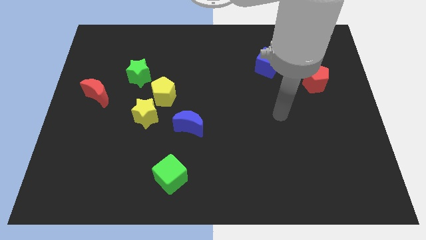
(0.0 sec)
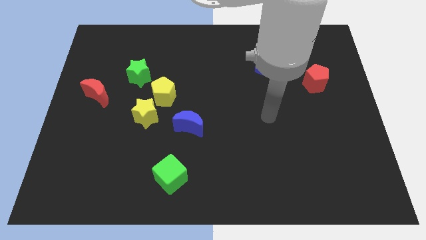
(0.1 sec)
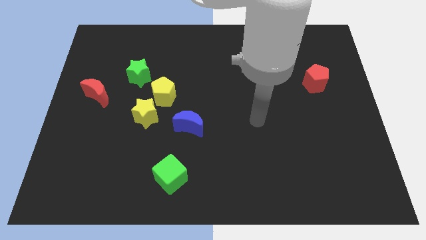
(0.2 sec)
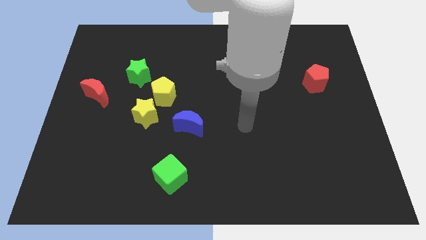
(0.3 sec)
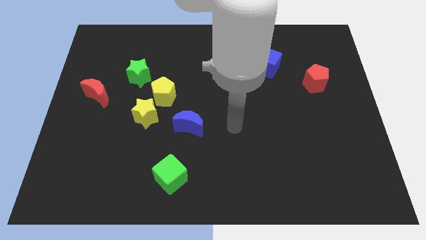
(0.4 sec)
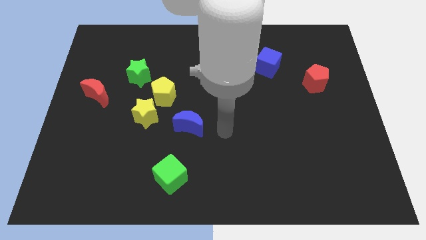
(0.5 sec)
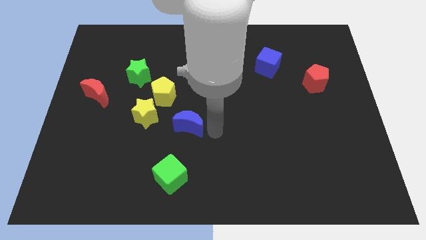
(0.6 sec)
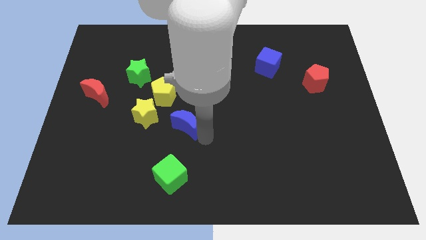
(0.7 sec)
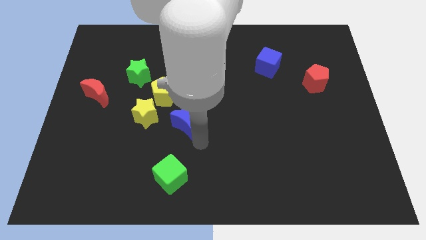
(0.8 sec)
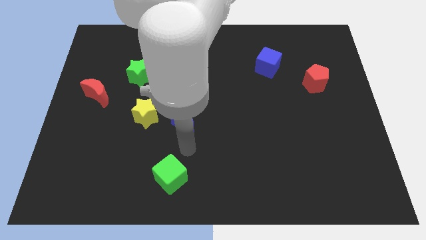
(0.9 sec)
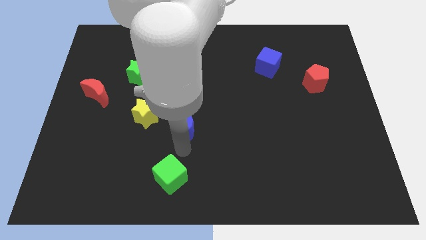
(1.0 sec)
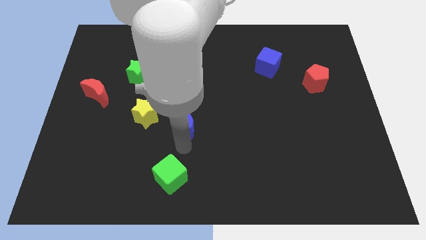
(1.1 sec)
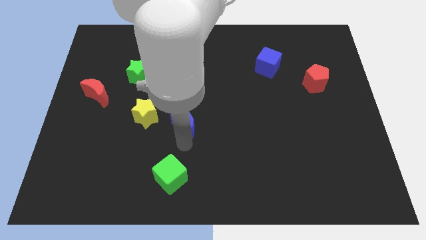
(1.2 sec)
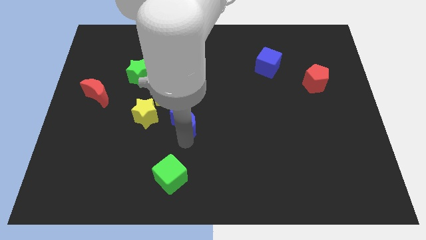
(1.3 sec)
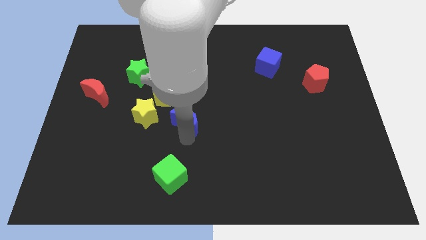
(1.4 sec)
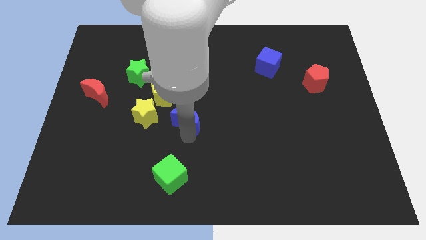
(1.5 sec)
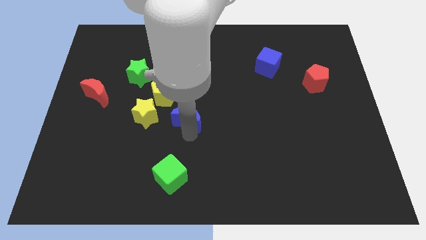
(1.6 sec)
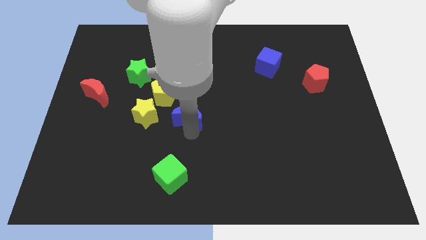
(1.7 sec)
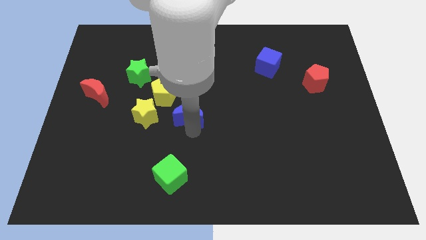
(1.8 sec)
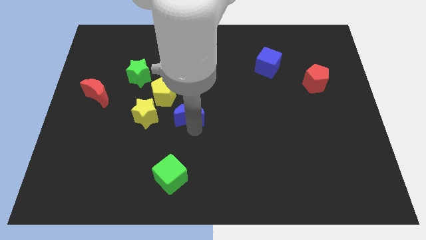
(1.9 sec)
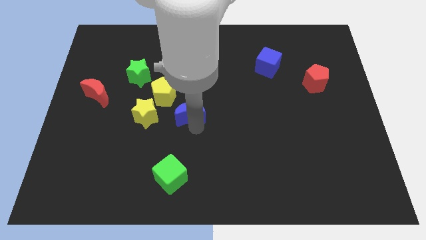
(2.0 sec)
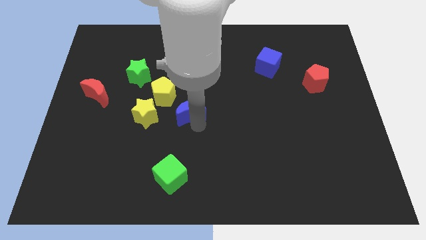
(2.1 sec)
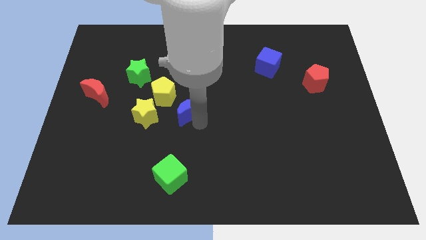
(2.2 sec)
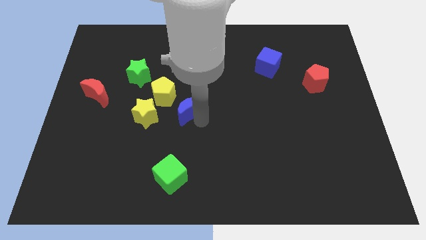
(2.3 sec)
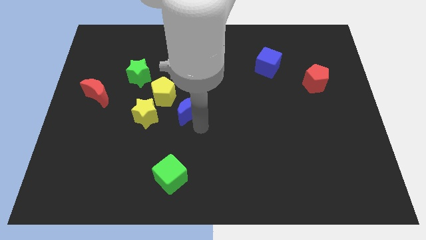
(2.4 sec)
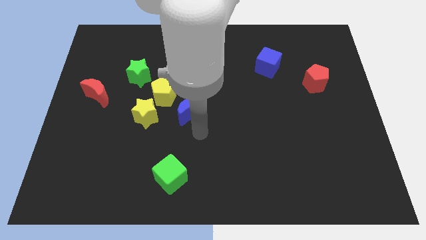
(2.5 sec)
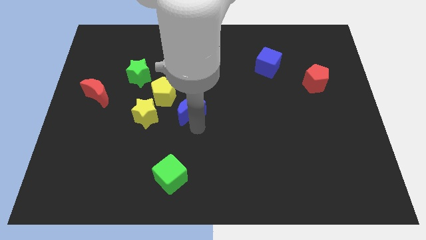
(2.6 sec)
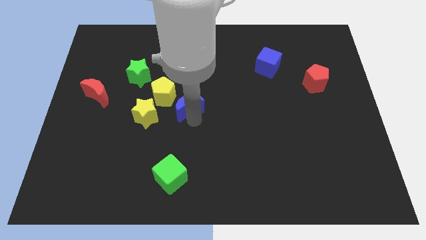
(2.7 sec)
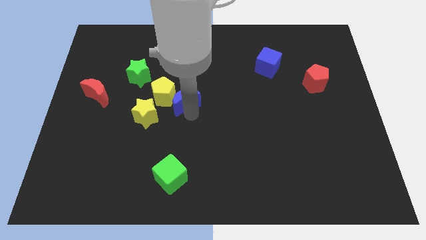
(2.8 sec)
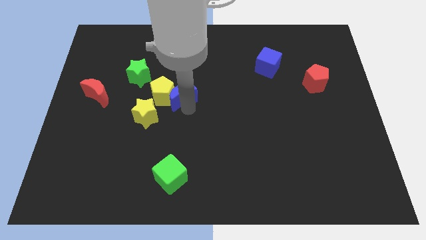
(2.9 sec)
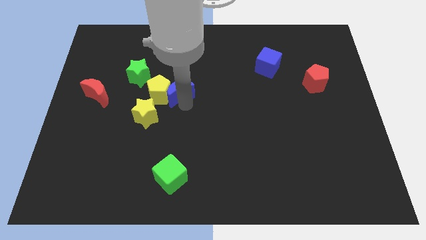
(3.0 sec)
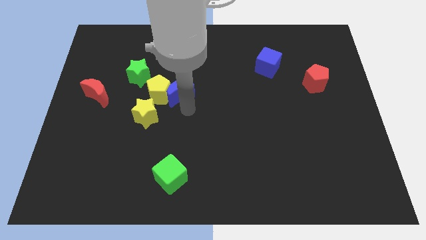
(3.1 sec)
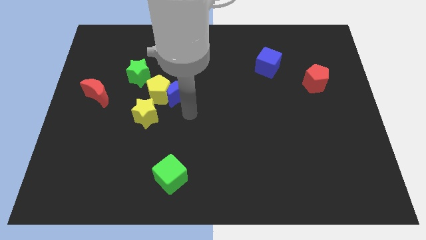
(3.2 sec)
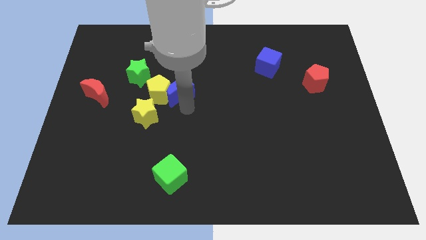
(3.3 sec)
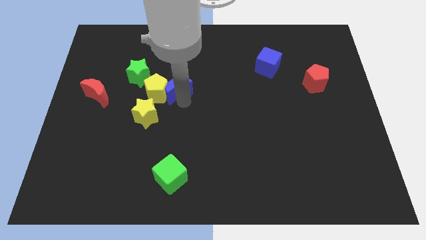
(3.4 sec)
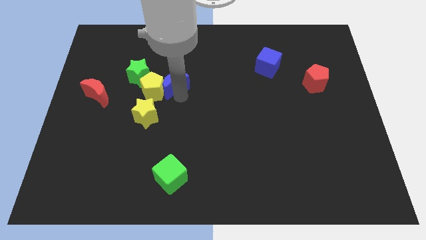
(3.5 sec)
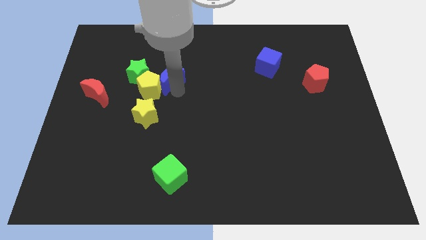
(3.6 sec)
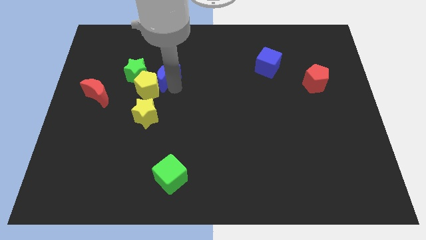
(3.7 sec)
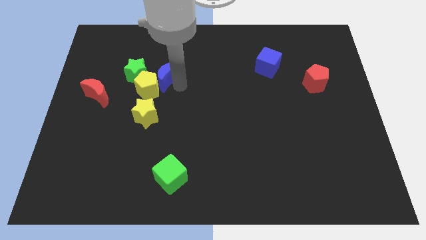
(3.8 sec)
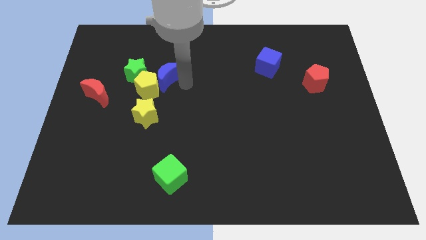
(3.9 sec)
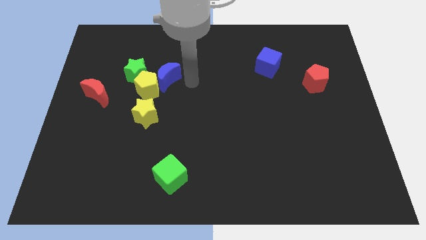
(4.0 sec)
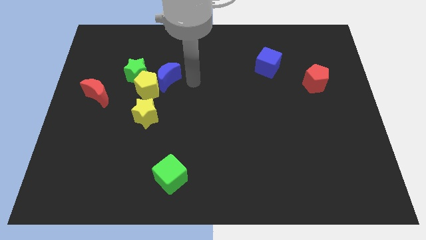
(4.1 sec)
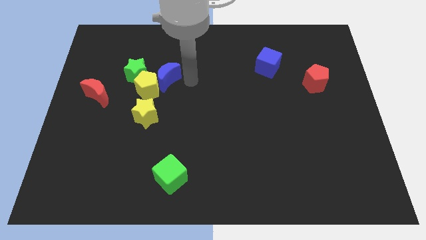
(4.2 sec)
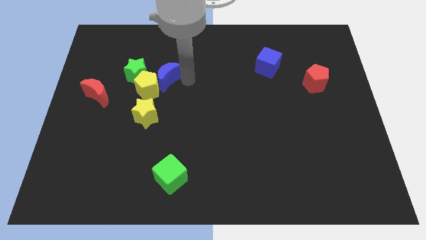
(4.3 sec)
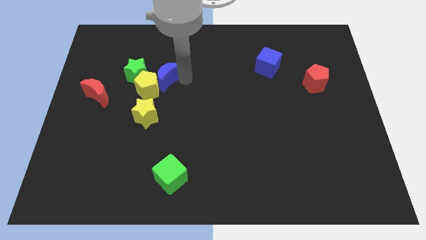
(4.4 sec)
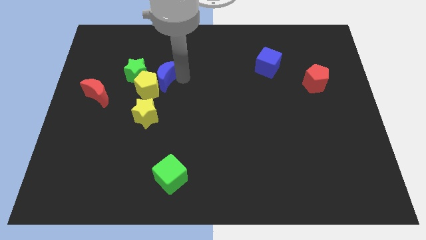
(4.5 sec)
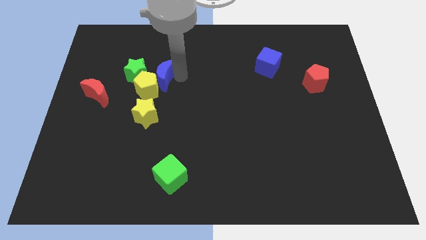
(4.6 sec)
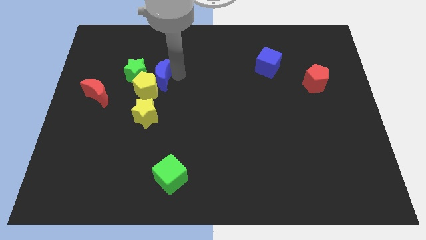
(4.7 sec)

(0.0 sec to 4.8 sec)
slide the blue moon to the green star

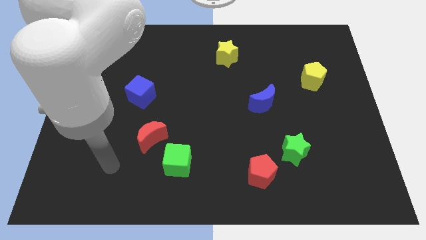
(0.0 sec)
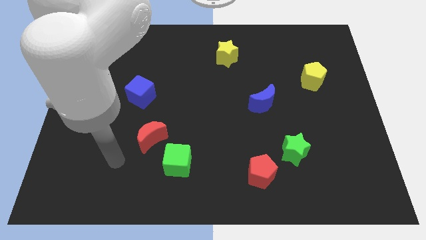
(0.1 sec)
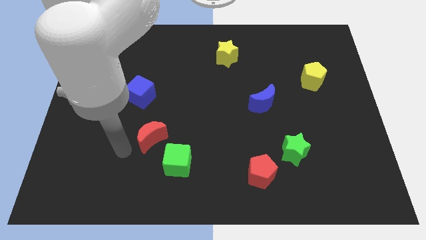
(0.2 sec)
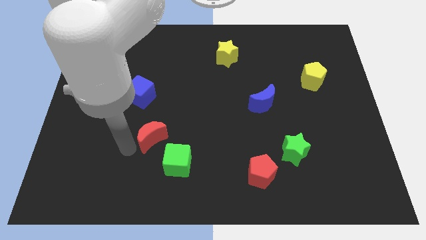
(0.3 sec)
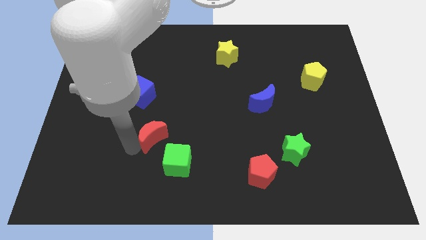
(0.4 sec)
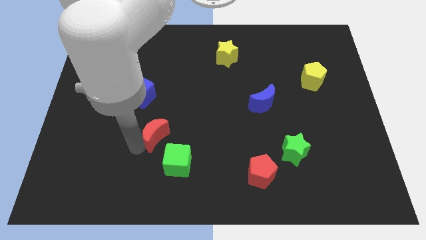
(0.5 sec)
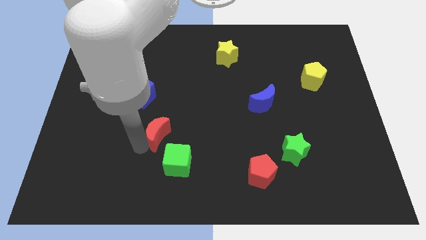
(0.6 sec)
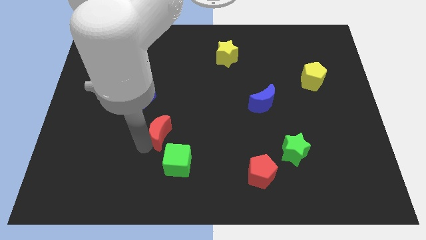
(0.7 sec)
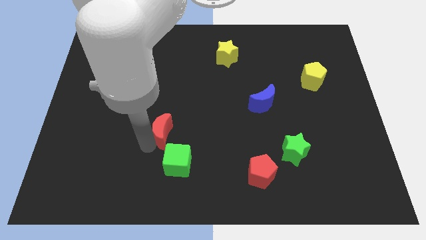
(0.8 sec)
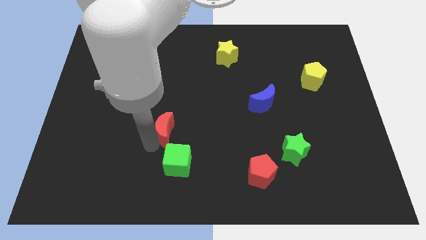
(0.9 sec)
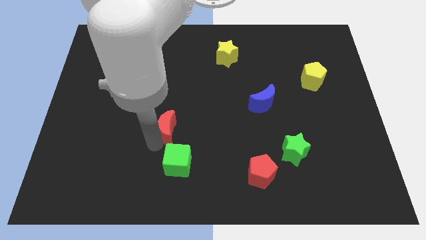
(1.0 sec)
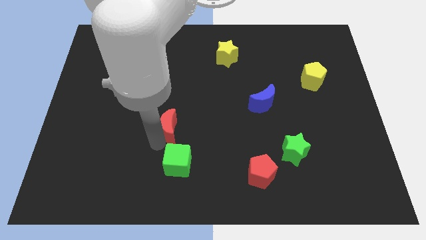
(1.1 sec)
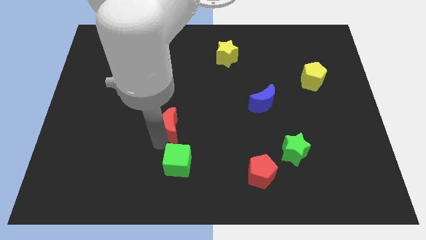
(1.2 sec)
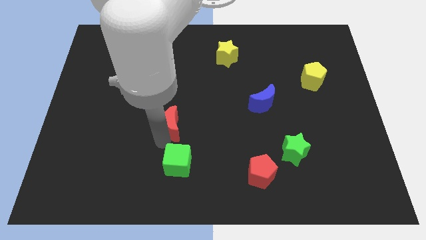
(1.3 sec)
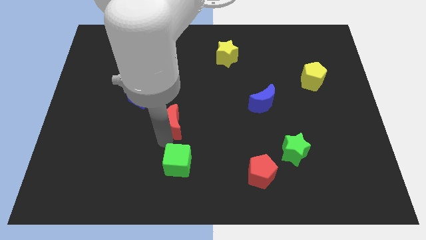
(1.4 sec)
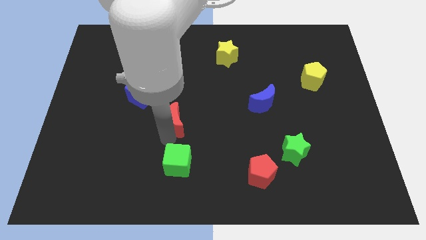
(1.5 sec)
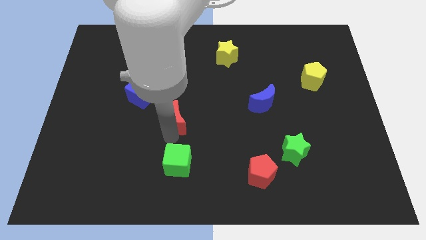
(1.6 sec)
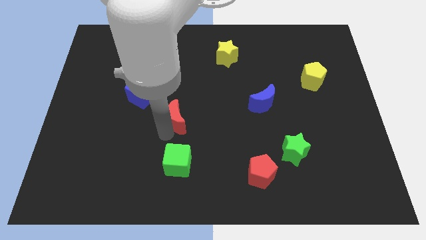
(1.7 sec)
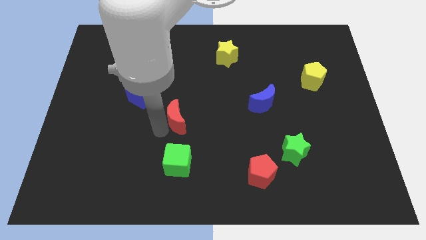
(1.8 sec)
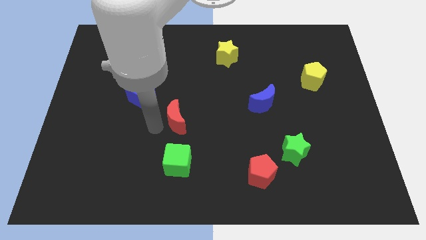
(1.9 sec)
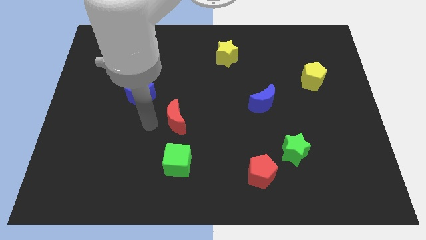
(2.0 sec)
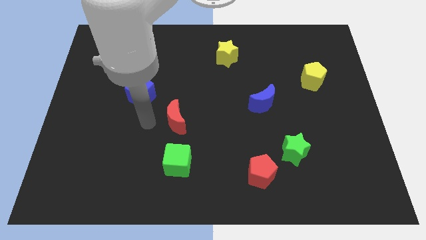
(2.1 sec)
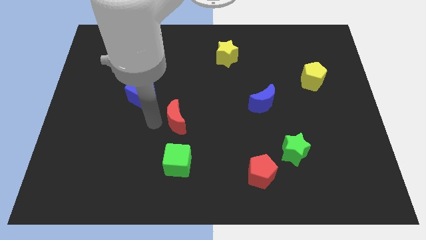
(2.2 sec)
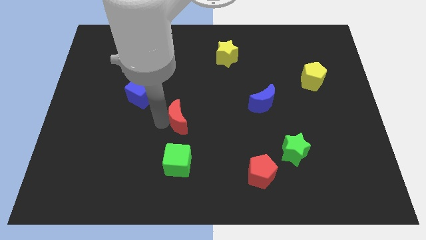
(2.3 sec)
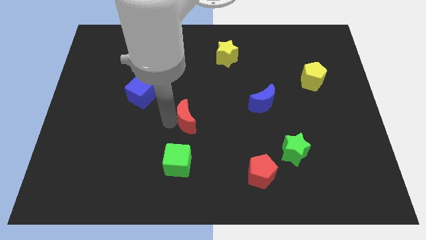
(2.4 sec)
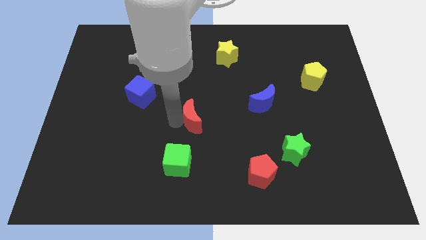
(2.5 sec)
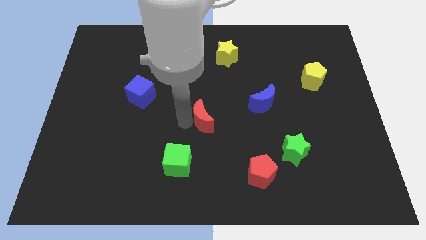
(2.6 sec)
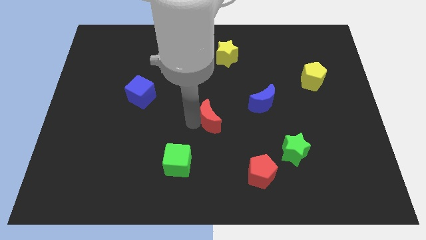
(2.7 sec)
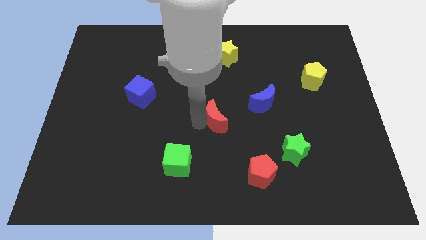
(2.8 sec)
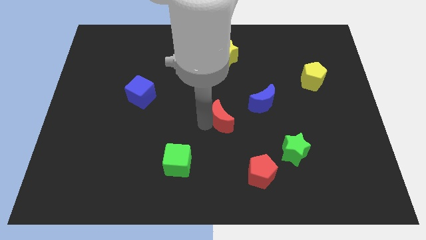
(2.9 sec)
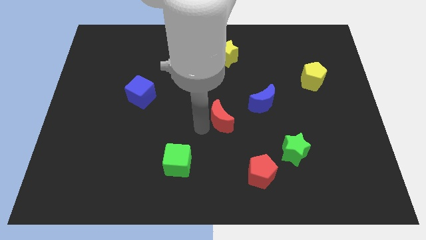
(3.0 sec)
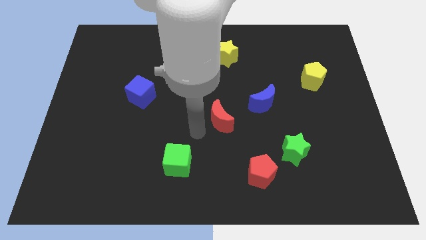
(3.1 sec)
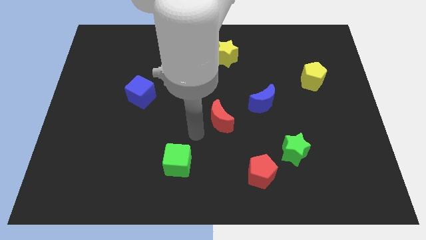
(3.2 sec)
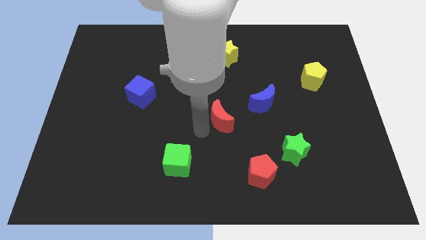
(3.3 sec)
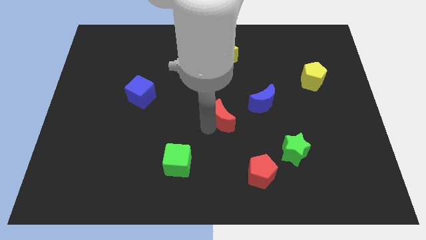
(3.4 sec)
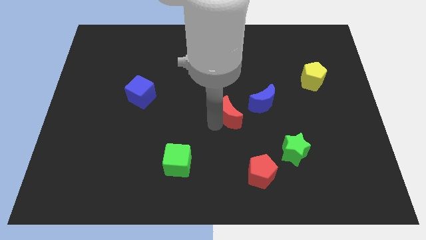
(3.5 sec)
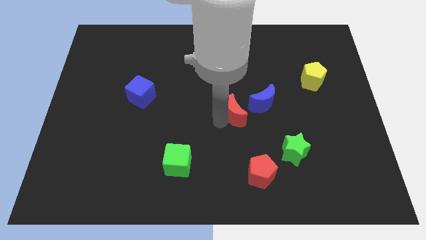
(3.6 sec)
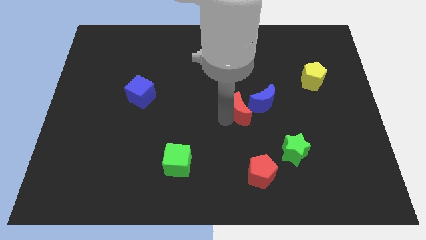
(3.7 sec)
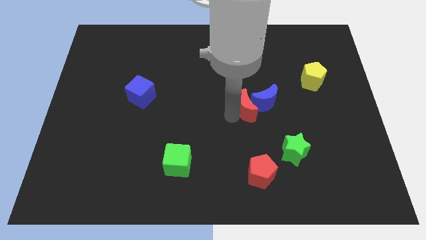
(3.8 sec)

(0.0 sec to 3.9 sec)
slide the red moon towards the blue moon
